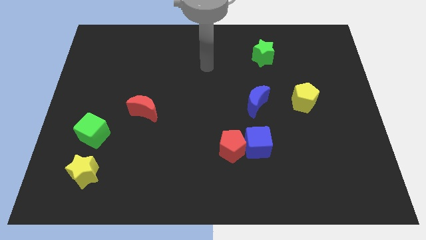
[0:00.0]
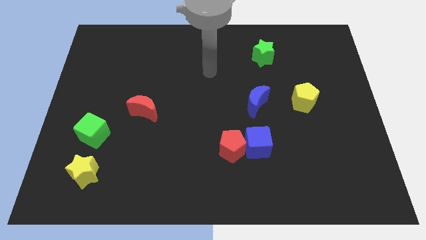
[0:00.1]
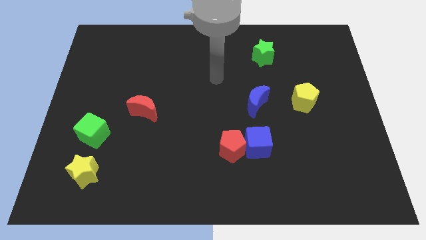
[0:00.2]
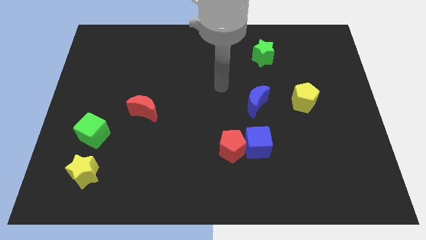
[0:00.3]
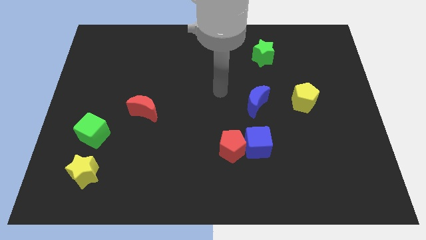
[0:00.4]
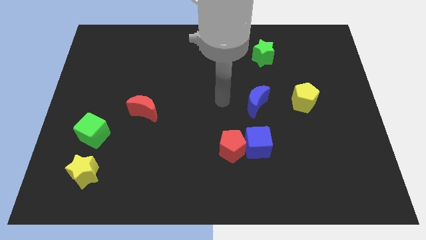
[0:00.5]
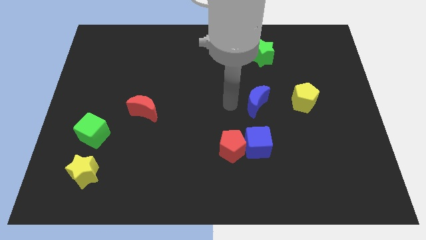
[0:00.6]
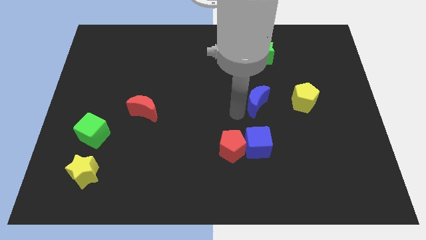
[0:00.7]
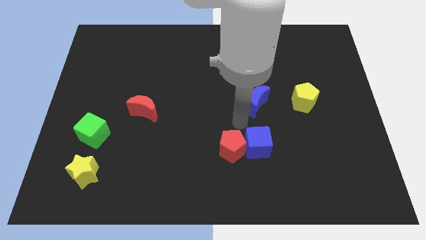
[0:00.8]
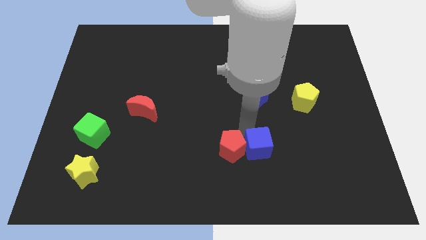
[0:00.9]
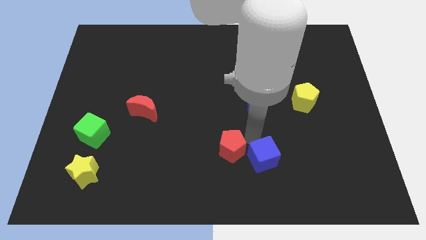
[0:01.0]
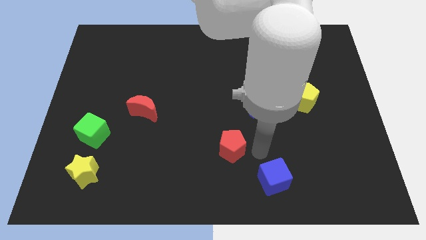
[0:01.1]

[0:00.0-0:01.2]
move the red pentagon away from the blue cube

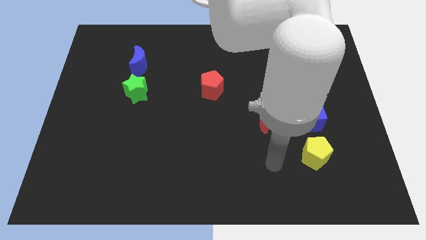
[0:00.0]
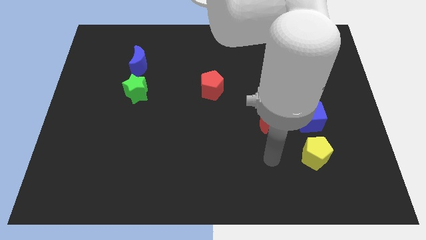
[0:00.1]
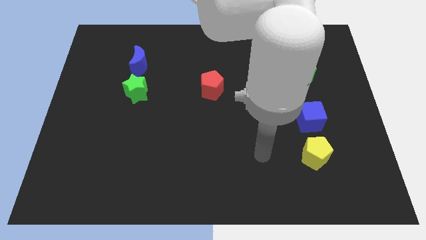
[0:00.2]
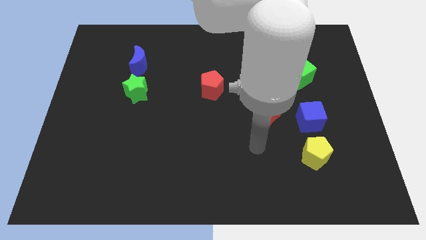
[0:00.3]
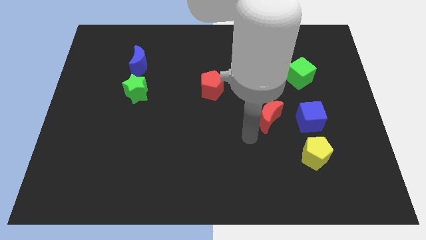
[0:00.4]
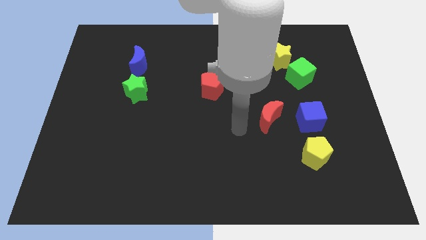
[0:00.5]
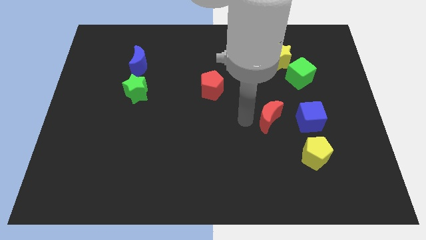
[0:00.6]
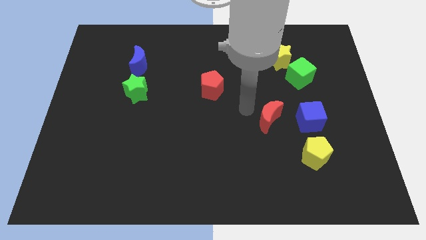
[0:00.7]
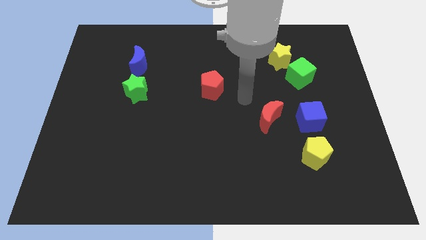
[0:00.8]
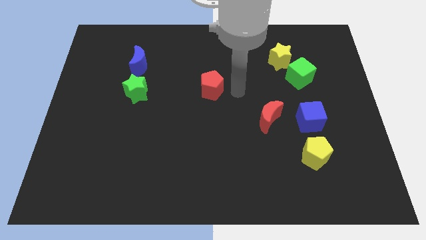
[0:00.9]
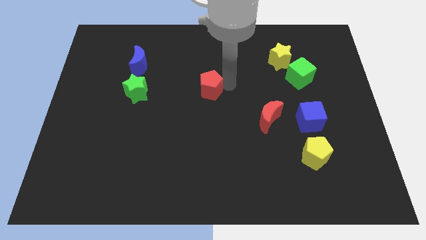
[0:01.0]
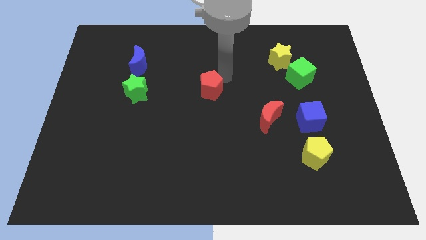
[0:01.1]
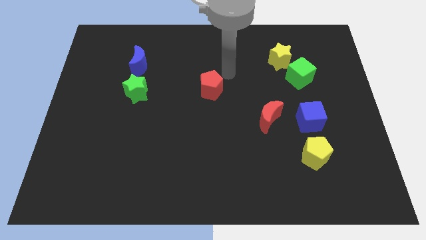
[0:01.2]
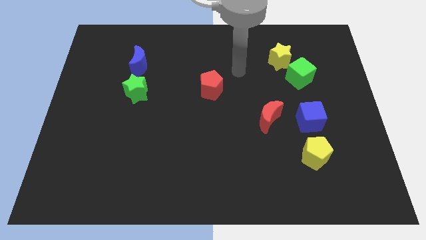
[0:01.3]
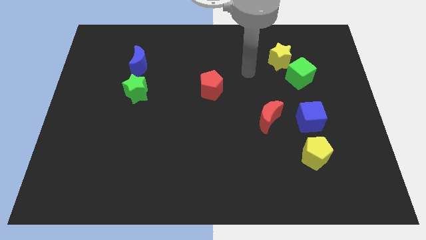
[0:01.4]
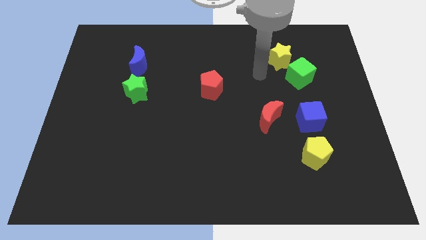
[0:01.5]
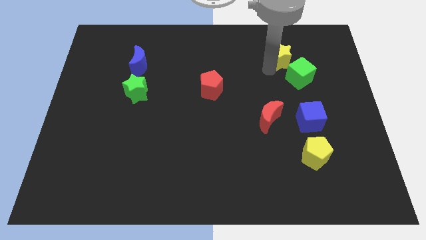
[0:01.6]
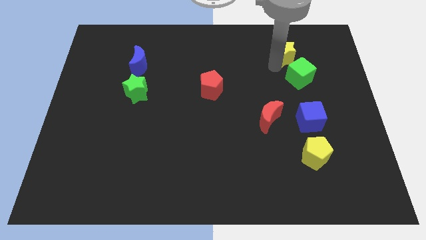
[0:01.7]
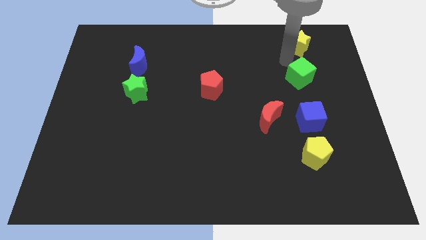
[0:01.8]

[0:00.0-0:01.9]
pull the green cube apart from the yellow star

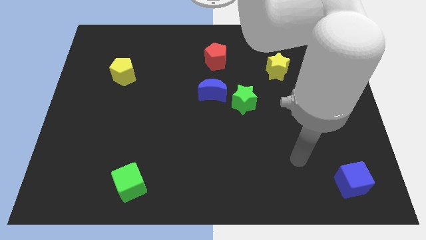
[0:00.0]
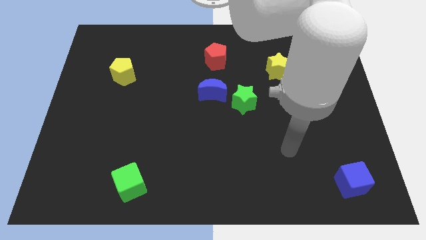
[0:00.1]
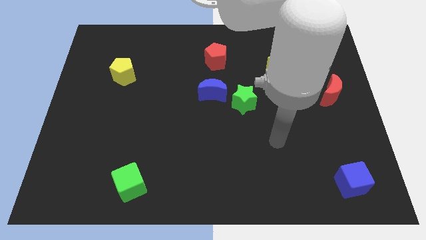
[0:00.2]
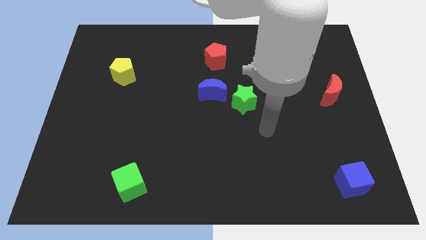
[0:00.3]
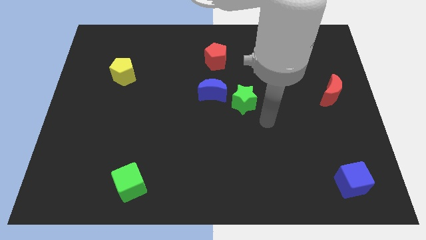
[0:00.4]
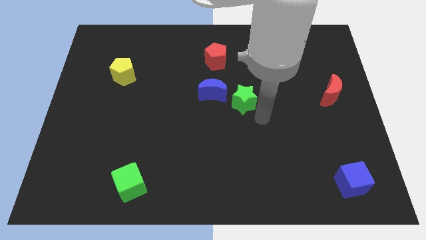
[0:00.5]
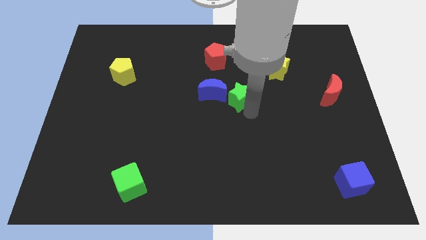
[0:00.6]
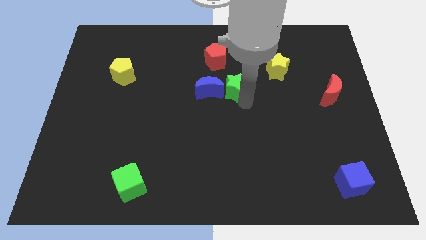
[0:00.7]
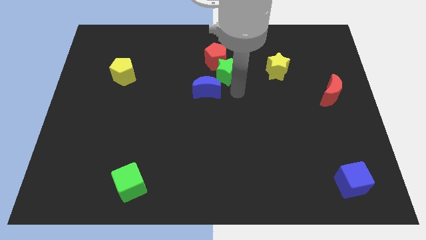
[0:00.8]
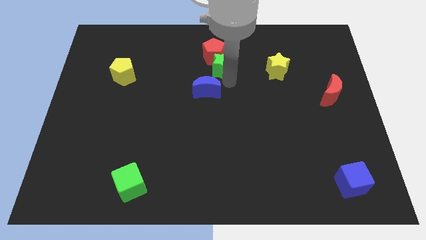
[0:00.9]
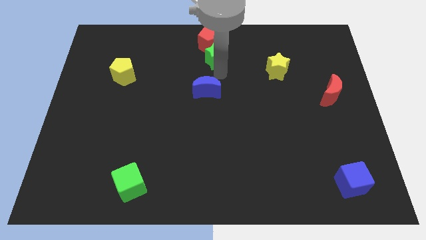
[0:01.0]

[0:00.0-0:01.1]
separate the blue moon from the green star

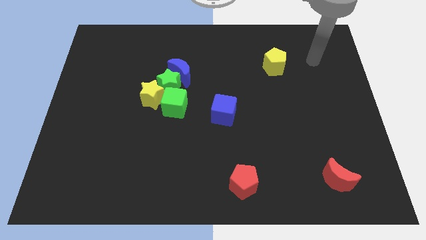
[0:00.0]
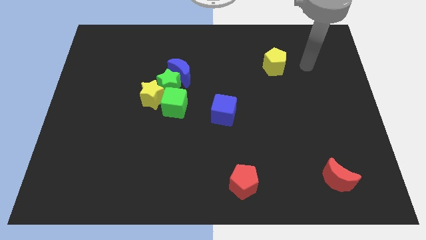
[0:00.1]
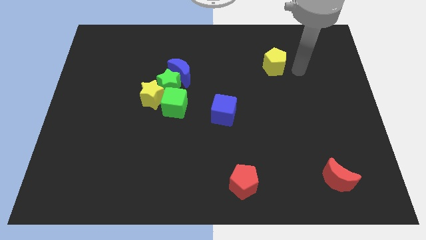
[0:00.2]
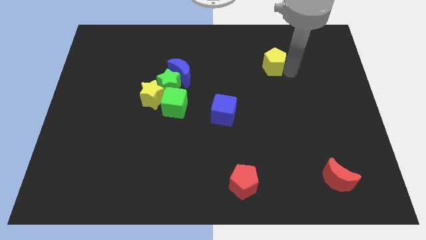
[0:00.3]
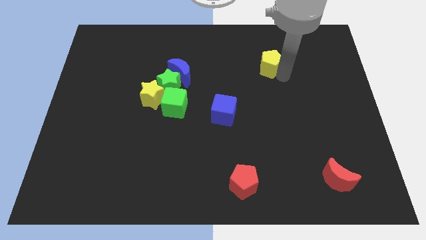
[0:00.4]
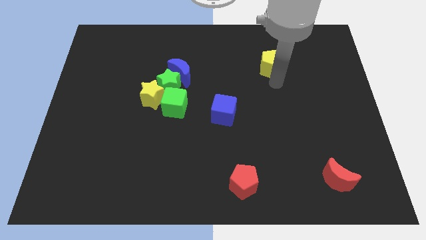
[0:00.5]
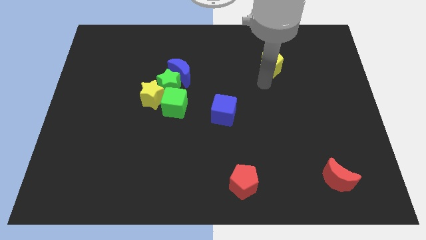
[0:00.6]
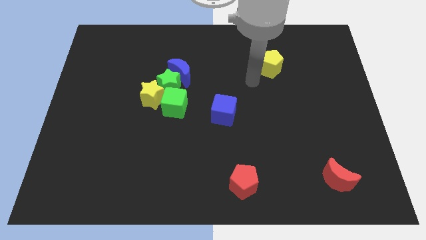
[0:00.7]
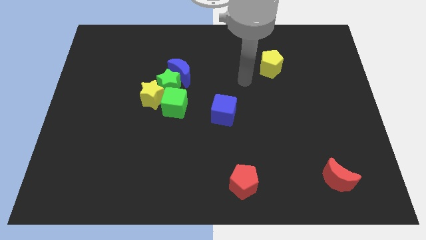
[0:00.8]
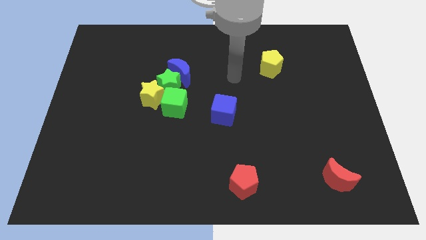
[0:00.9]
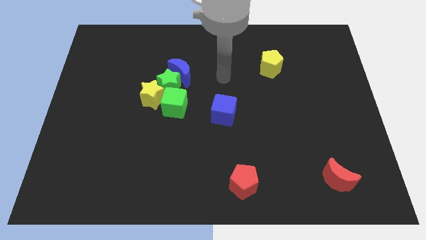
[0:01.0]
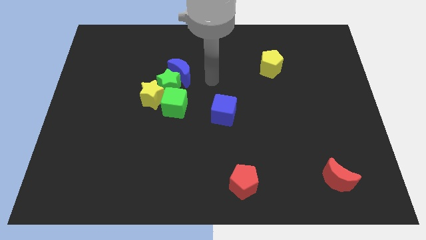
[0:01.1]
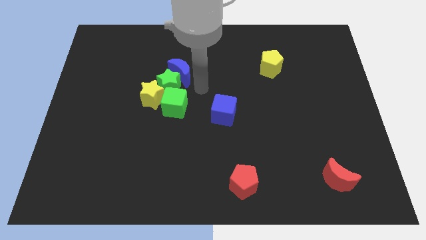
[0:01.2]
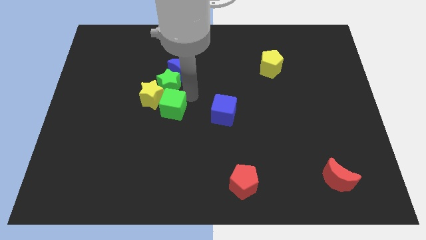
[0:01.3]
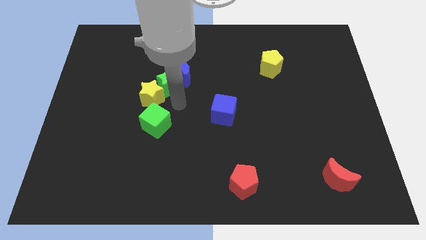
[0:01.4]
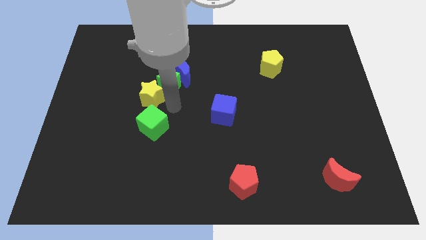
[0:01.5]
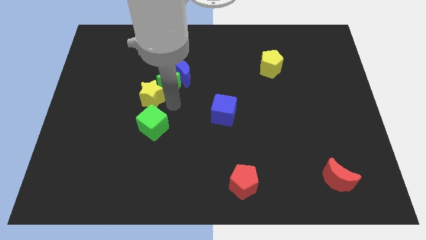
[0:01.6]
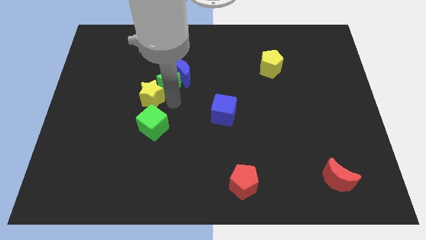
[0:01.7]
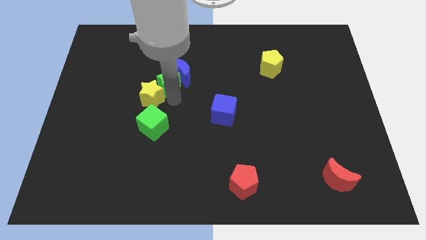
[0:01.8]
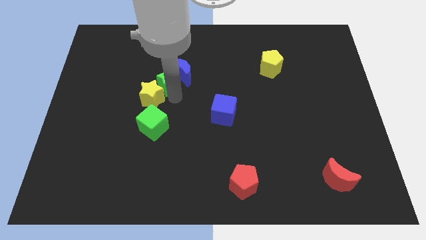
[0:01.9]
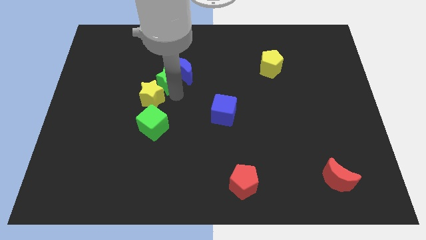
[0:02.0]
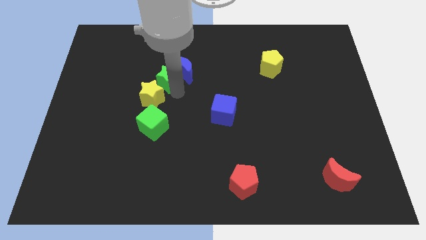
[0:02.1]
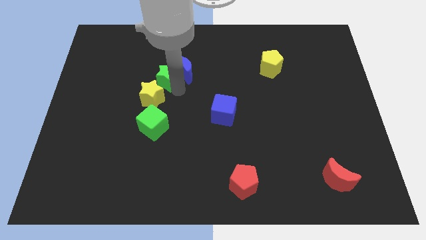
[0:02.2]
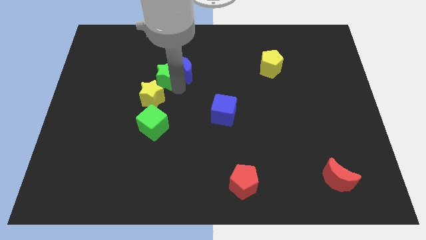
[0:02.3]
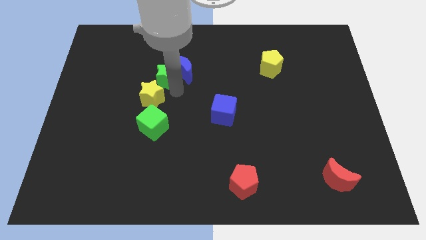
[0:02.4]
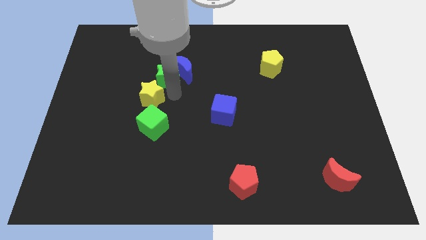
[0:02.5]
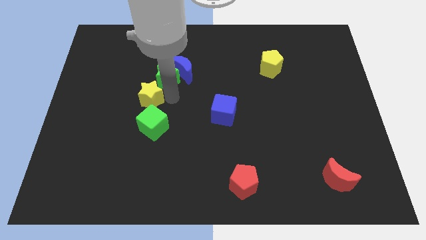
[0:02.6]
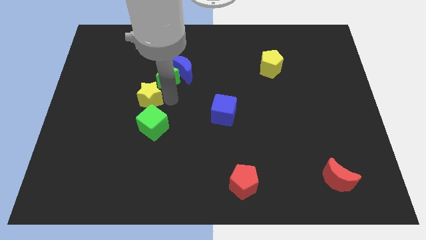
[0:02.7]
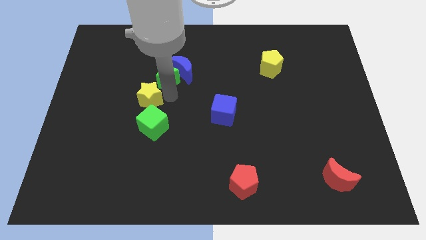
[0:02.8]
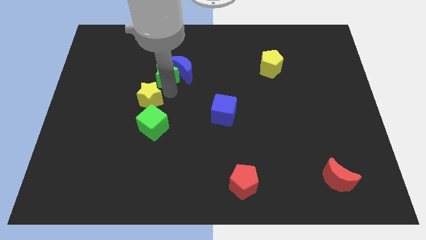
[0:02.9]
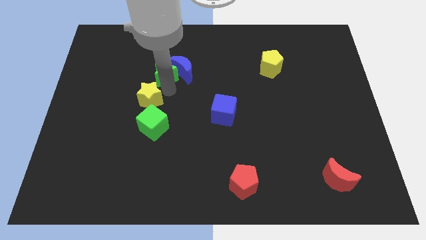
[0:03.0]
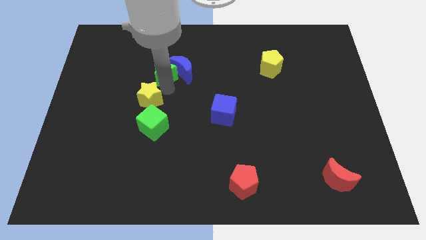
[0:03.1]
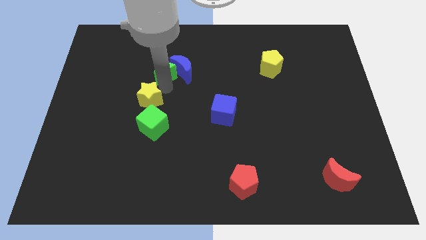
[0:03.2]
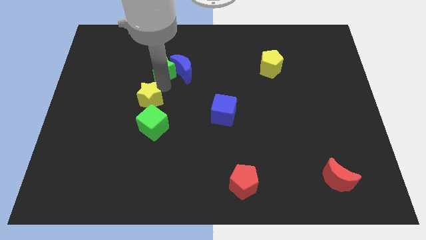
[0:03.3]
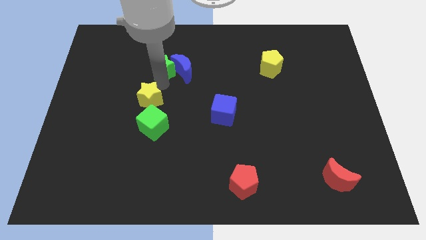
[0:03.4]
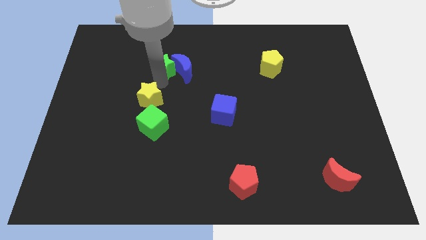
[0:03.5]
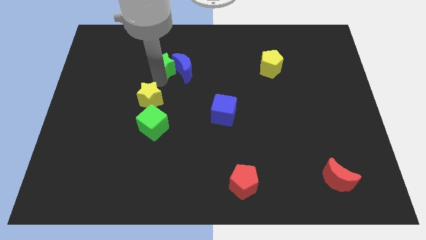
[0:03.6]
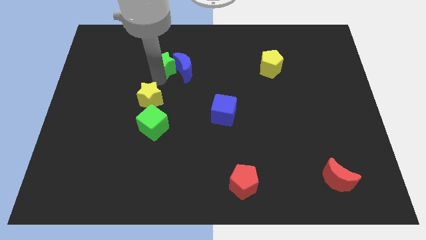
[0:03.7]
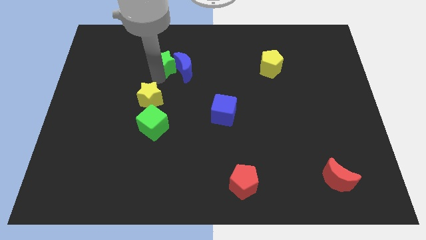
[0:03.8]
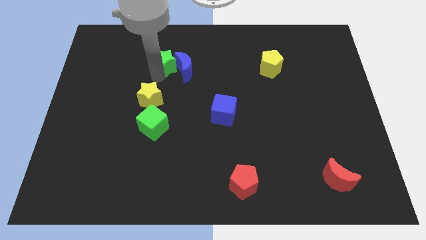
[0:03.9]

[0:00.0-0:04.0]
separate the green star from the yellow star, blue moon, and green cube

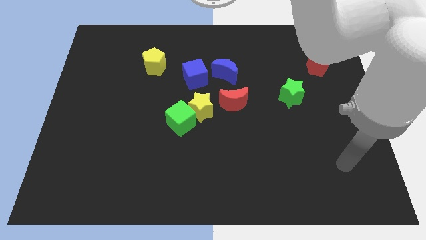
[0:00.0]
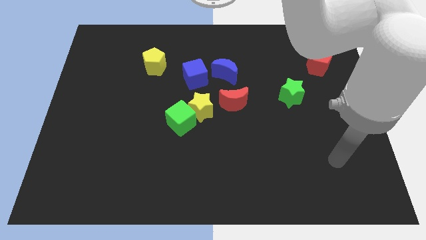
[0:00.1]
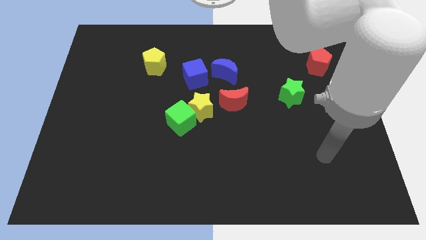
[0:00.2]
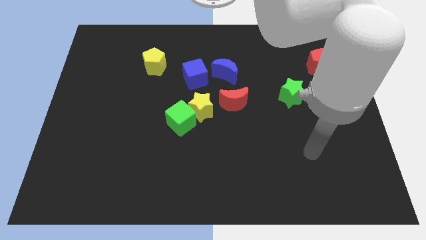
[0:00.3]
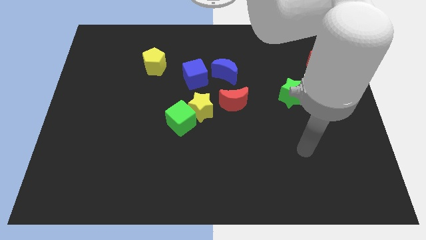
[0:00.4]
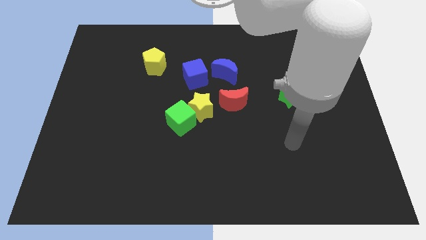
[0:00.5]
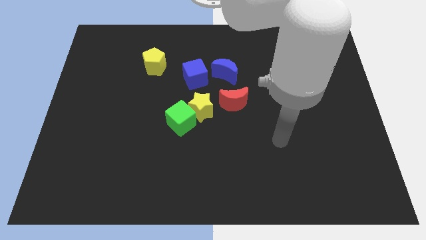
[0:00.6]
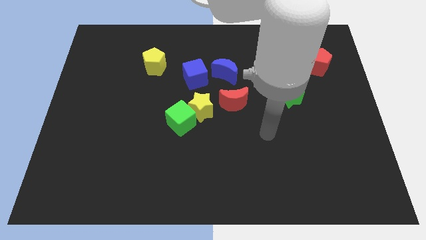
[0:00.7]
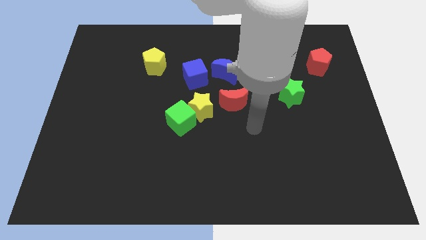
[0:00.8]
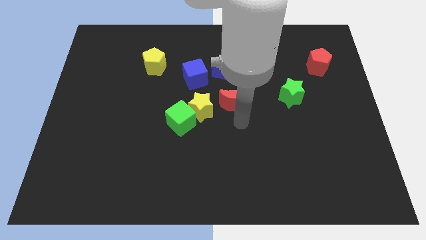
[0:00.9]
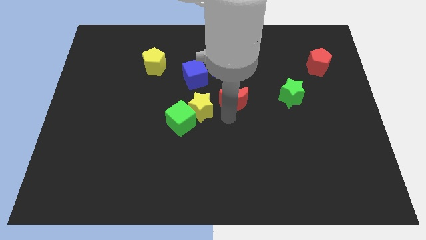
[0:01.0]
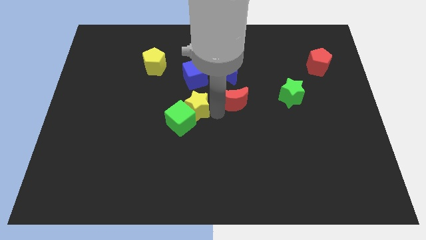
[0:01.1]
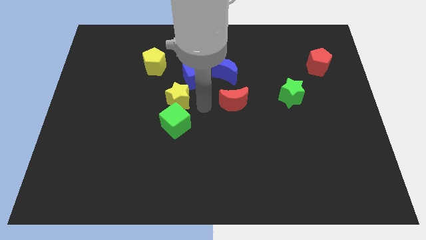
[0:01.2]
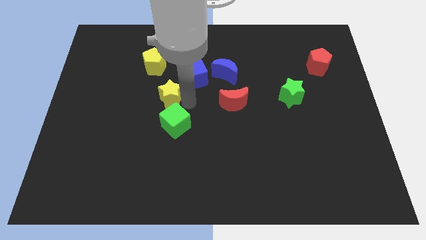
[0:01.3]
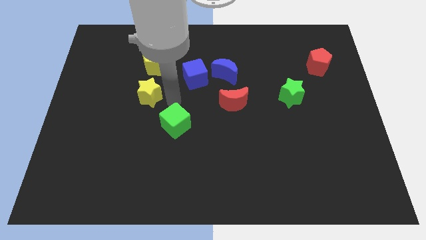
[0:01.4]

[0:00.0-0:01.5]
separate the green cube from the yellow star
